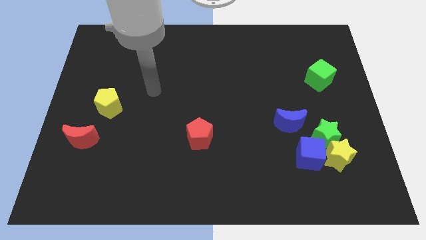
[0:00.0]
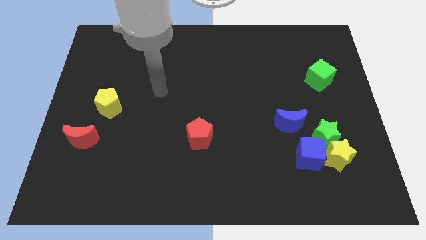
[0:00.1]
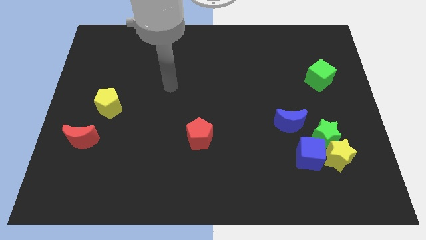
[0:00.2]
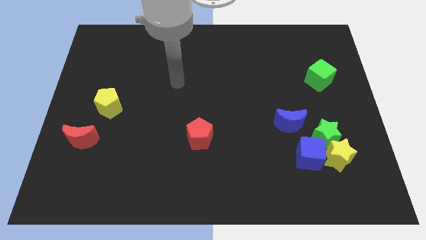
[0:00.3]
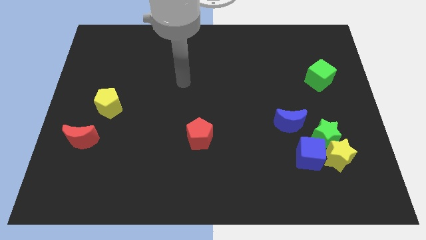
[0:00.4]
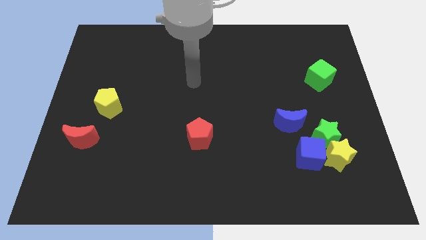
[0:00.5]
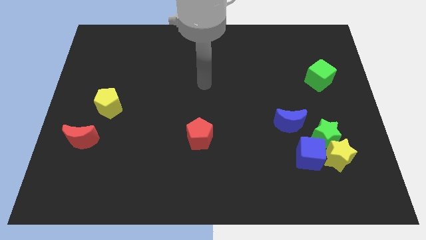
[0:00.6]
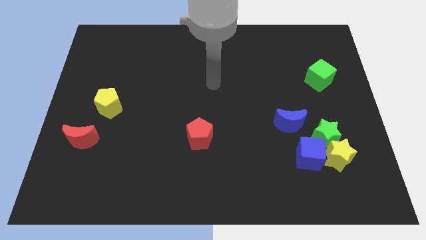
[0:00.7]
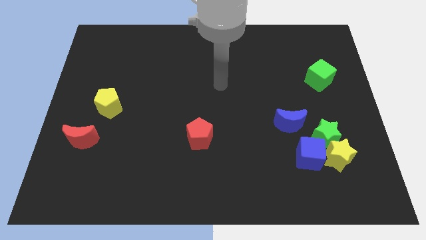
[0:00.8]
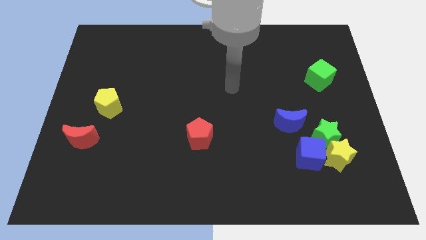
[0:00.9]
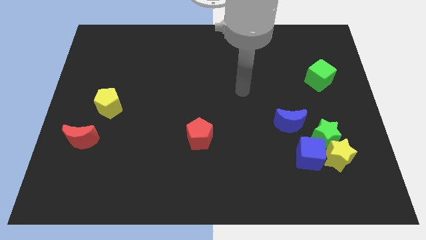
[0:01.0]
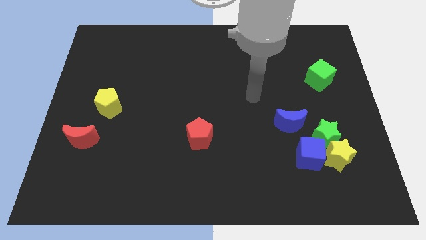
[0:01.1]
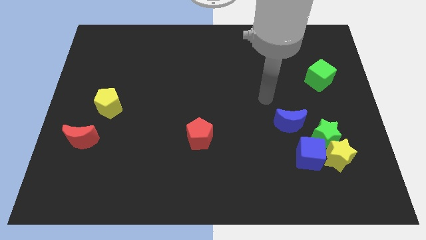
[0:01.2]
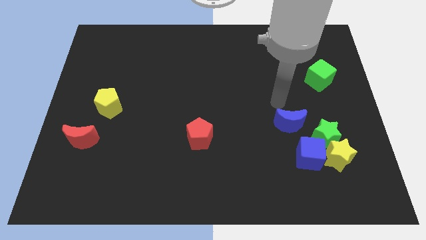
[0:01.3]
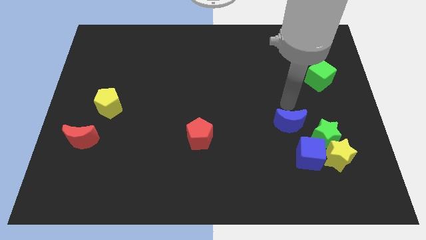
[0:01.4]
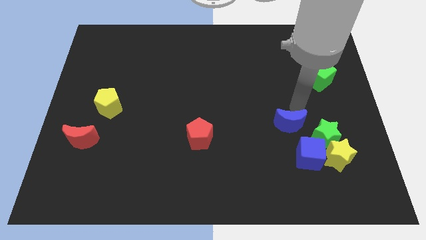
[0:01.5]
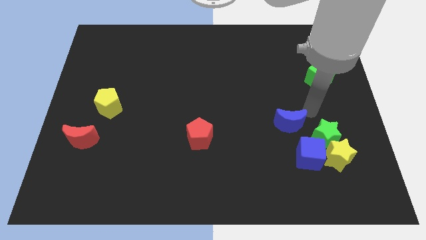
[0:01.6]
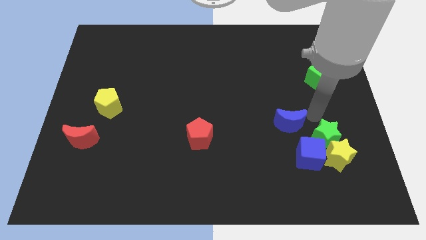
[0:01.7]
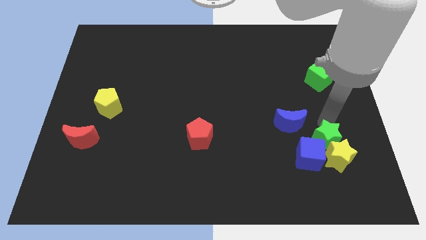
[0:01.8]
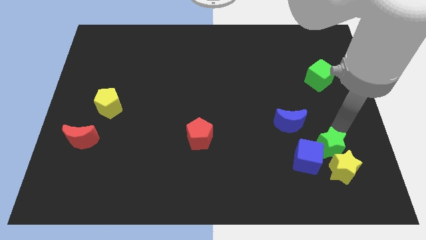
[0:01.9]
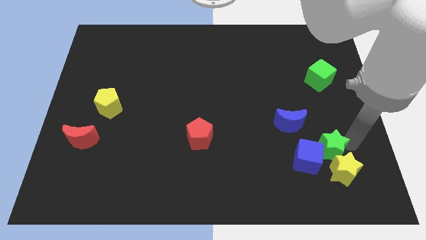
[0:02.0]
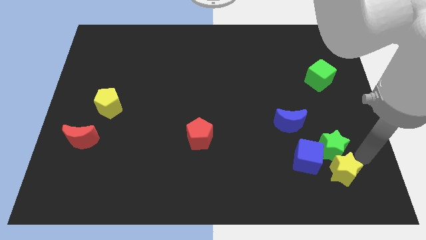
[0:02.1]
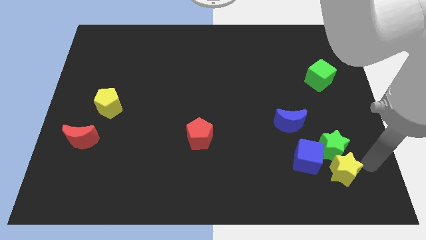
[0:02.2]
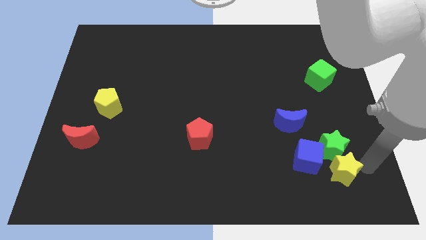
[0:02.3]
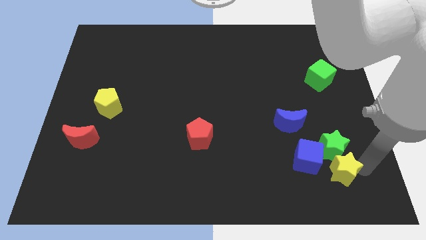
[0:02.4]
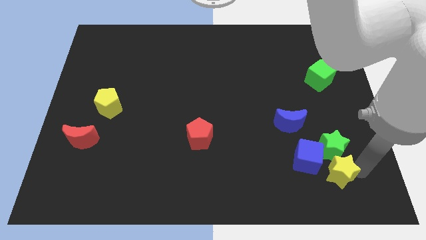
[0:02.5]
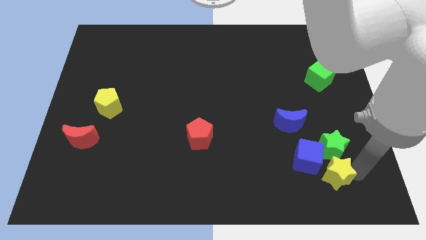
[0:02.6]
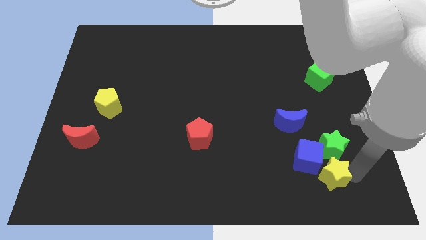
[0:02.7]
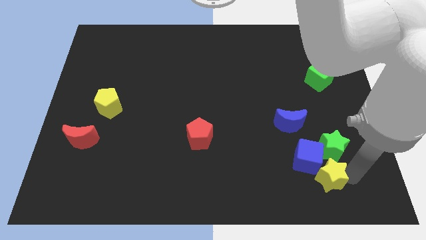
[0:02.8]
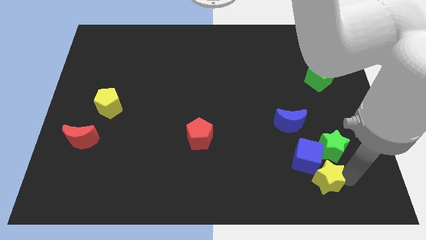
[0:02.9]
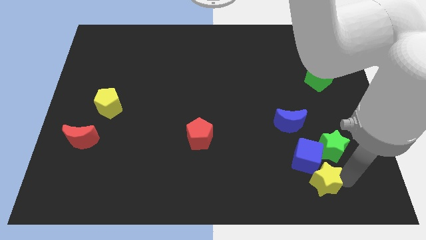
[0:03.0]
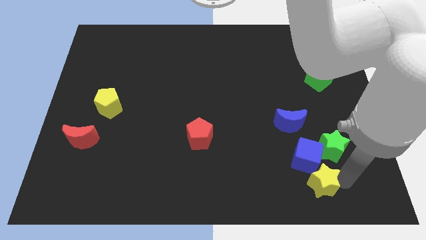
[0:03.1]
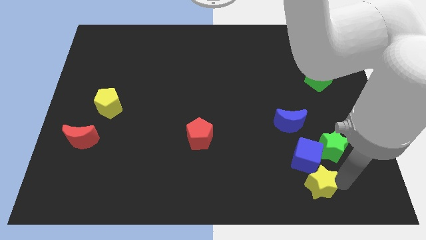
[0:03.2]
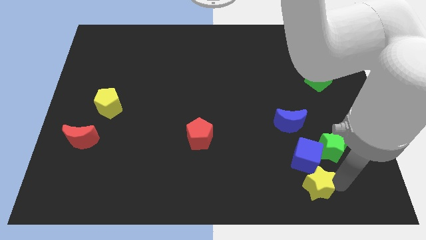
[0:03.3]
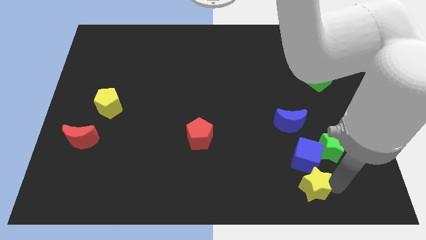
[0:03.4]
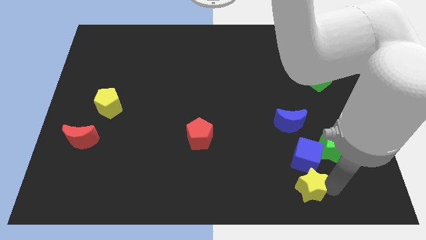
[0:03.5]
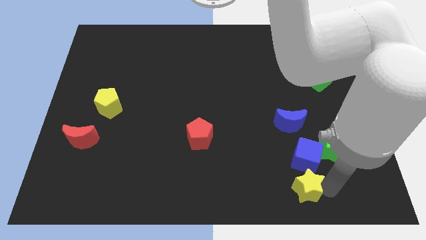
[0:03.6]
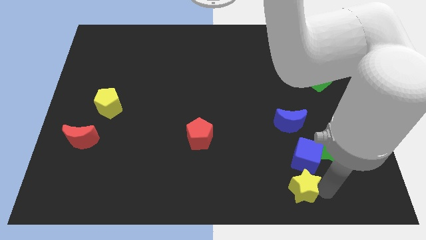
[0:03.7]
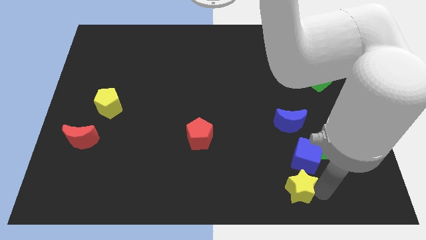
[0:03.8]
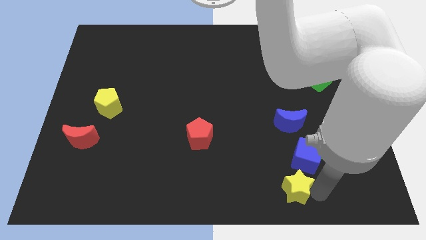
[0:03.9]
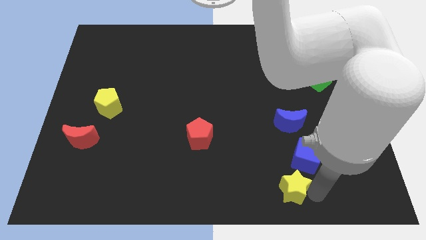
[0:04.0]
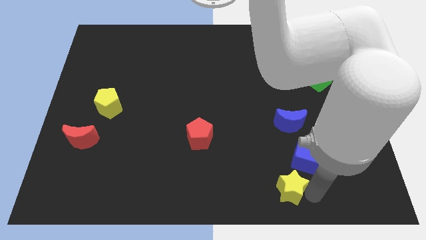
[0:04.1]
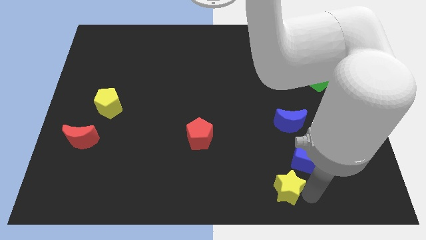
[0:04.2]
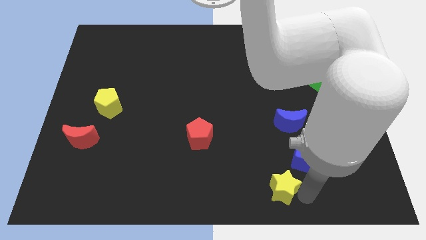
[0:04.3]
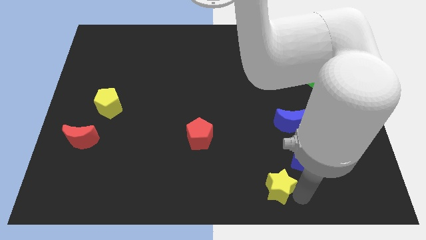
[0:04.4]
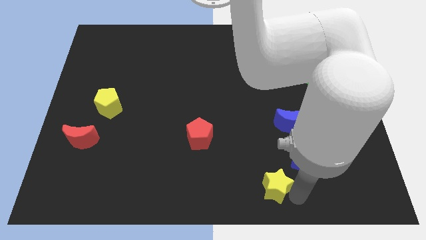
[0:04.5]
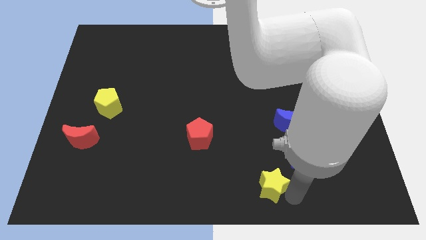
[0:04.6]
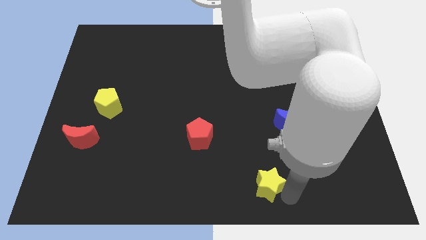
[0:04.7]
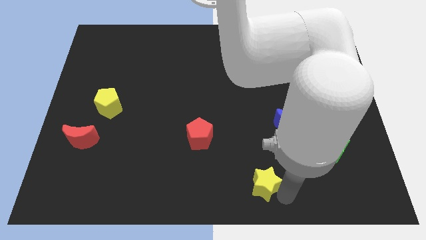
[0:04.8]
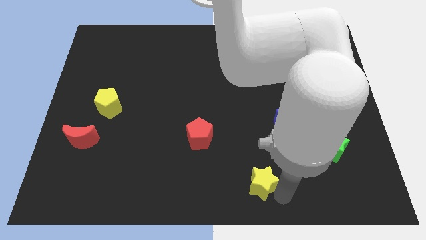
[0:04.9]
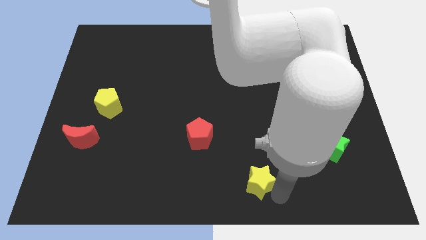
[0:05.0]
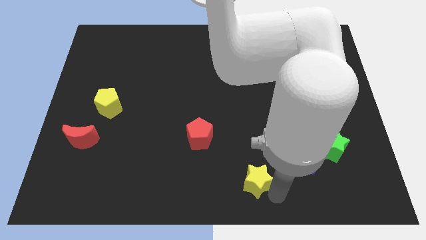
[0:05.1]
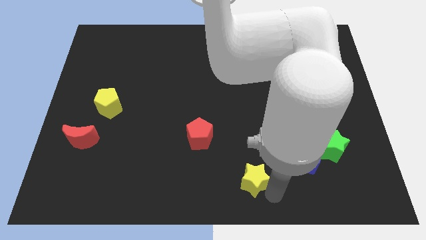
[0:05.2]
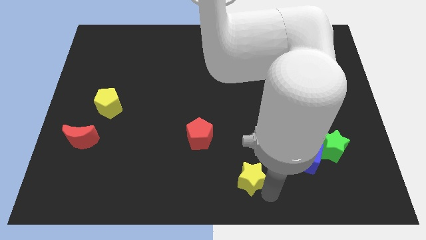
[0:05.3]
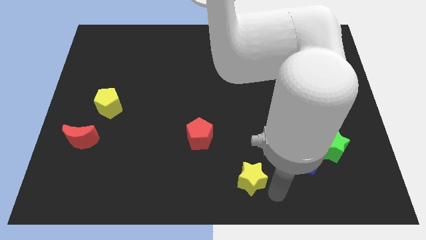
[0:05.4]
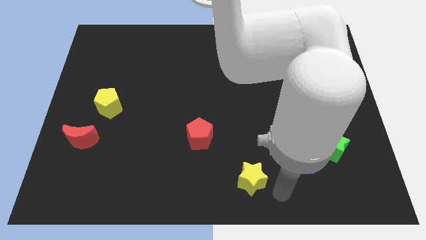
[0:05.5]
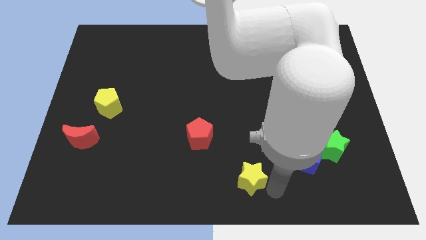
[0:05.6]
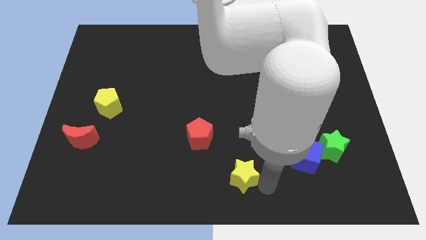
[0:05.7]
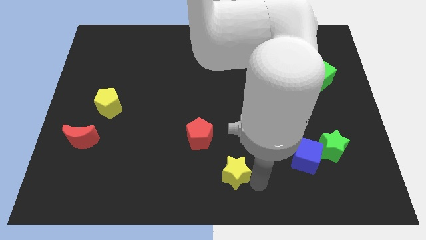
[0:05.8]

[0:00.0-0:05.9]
slide the yellow star left

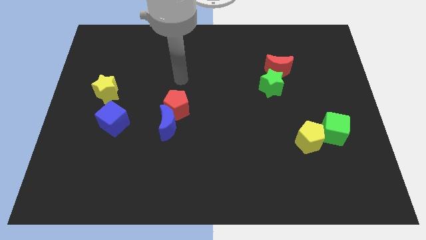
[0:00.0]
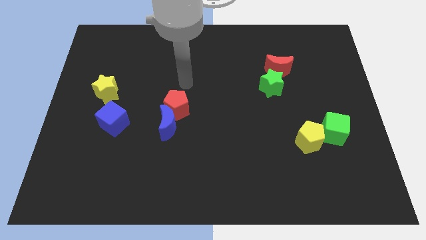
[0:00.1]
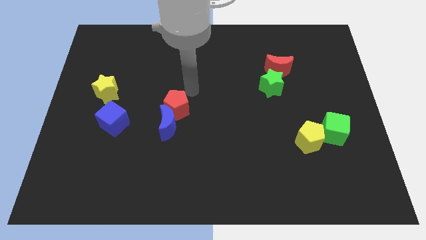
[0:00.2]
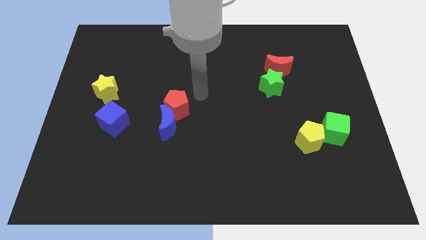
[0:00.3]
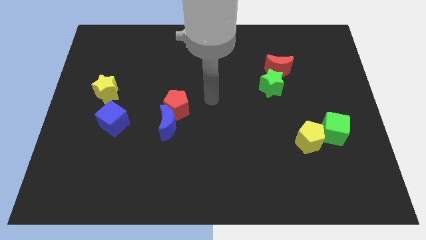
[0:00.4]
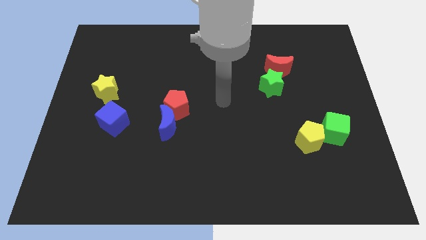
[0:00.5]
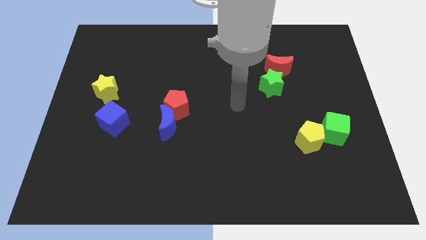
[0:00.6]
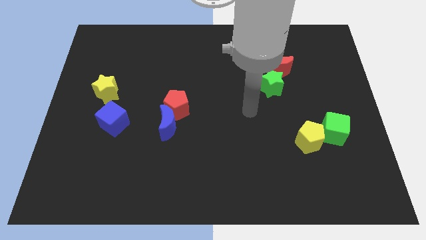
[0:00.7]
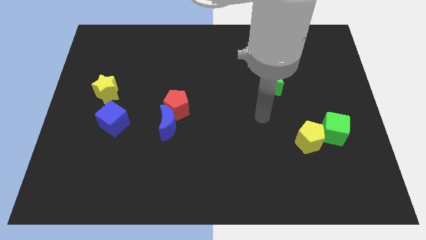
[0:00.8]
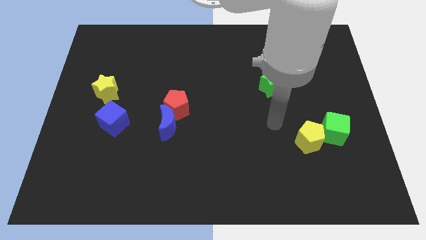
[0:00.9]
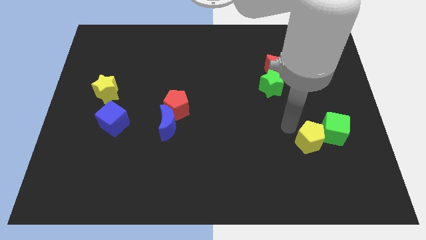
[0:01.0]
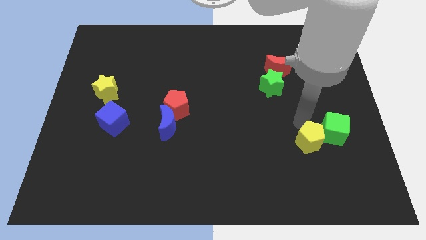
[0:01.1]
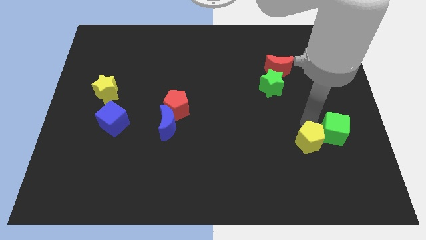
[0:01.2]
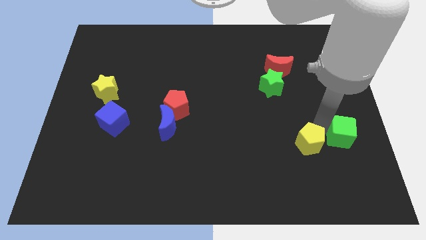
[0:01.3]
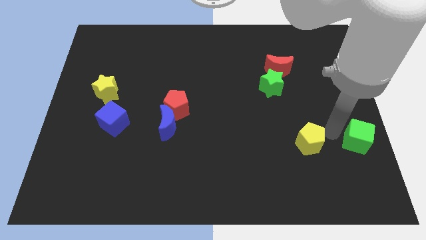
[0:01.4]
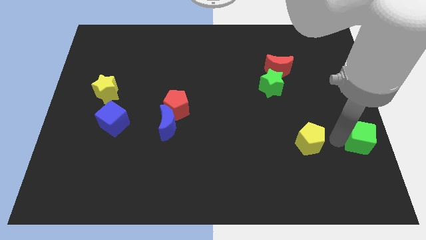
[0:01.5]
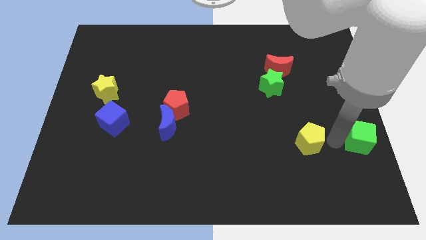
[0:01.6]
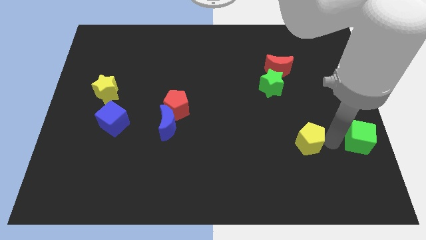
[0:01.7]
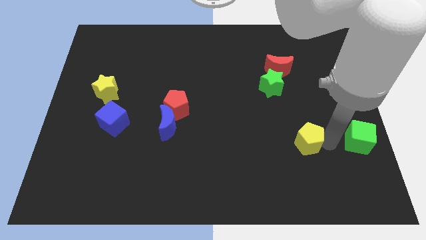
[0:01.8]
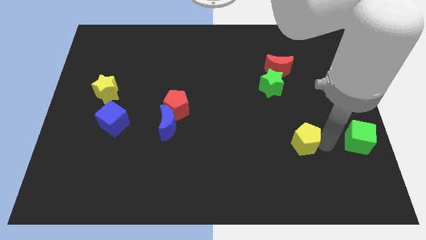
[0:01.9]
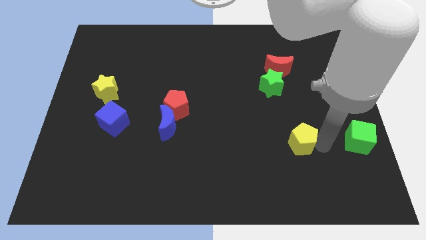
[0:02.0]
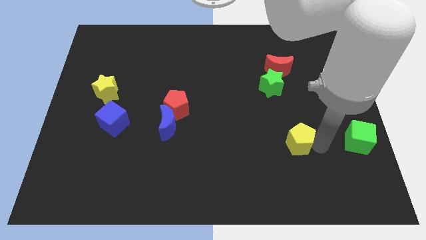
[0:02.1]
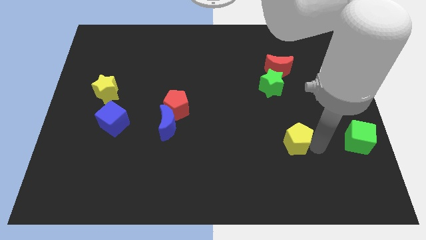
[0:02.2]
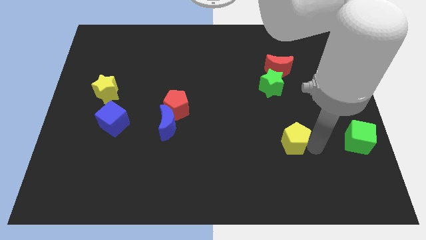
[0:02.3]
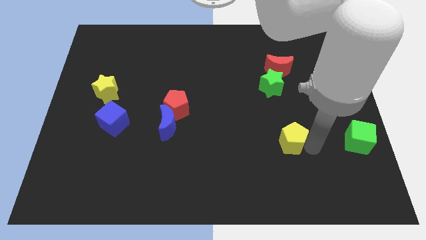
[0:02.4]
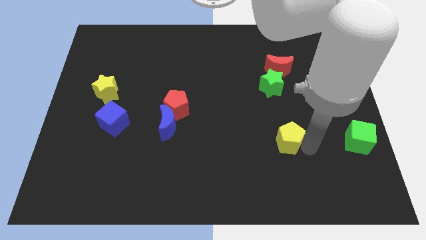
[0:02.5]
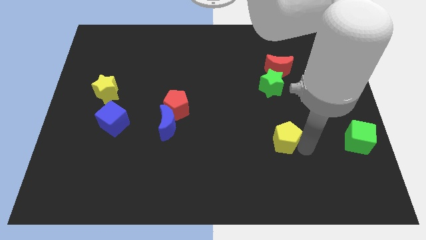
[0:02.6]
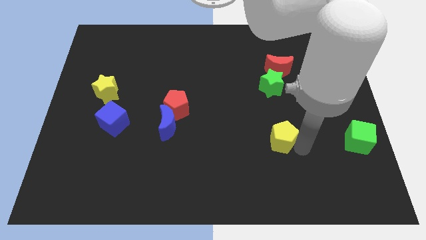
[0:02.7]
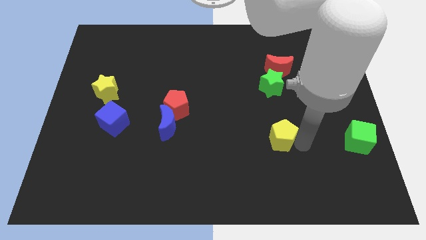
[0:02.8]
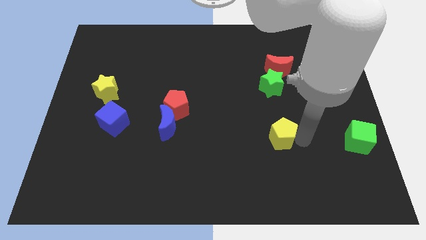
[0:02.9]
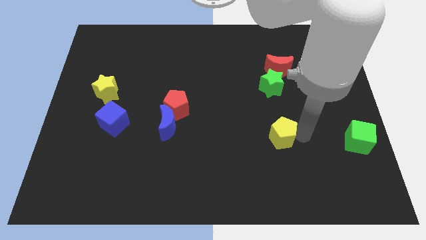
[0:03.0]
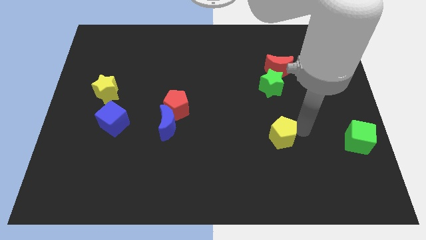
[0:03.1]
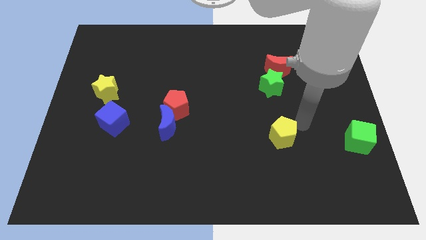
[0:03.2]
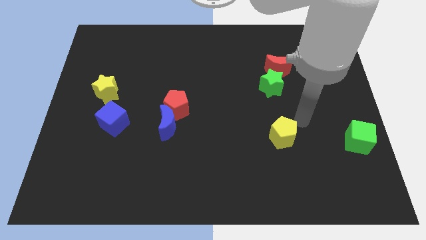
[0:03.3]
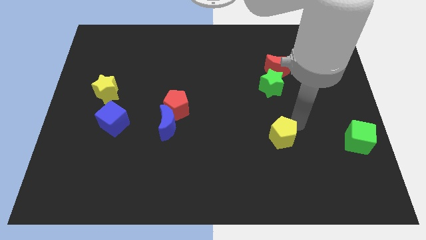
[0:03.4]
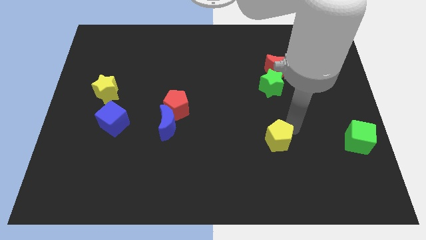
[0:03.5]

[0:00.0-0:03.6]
slightly push the yellow pentagon left
